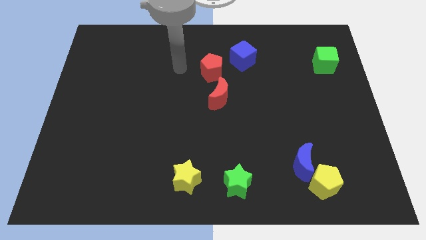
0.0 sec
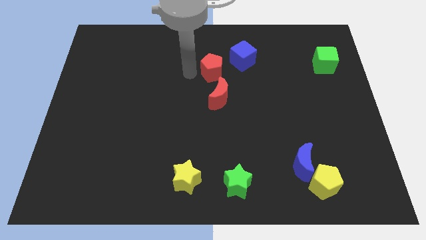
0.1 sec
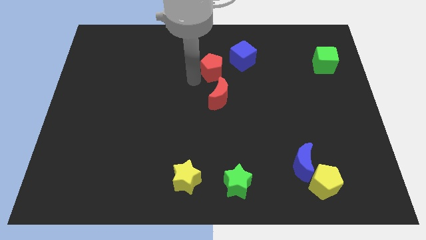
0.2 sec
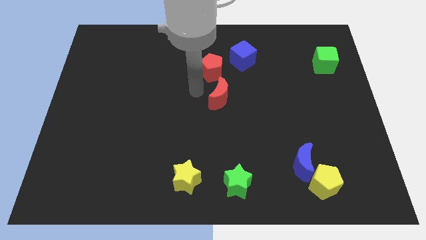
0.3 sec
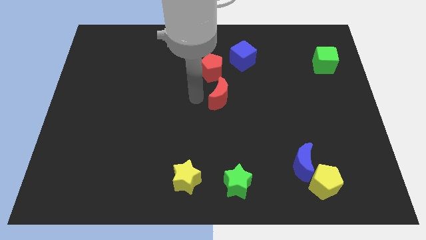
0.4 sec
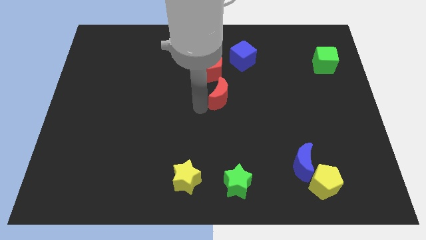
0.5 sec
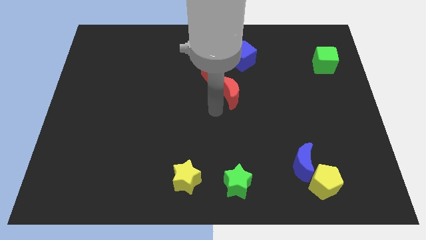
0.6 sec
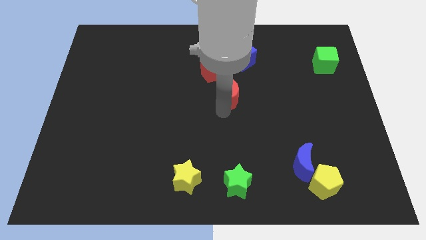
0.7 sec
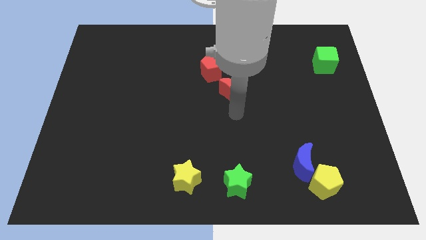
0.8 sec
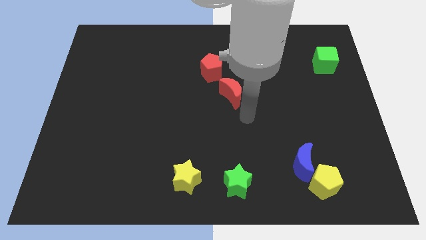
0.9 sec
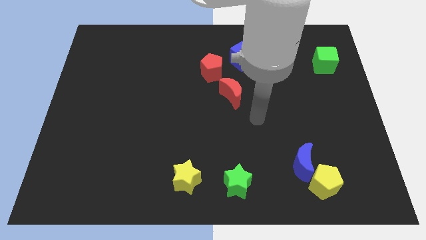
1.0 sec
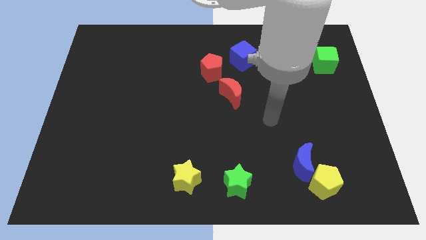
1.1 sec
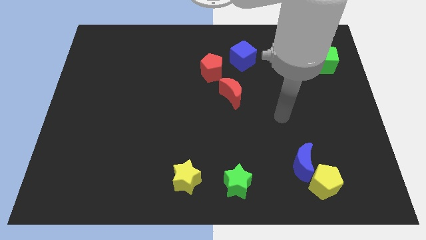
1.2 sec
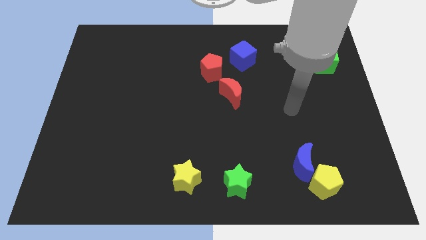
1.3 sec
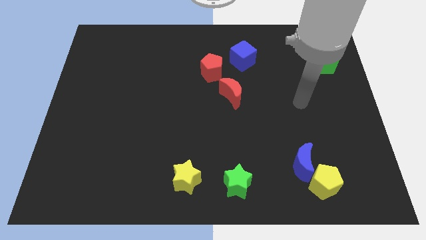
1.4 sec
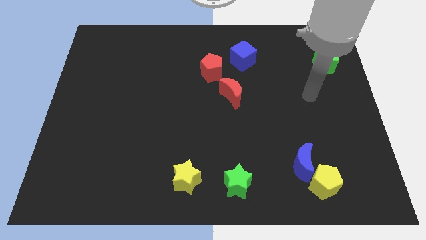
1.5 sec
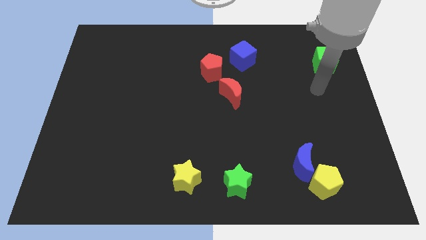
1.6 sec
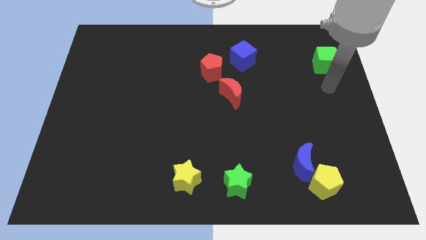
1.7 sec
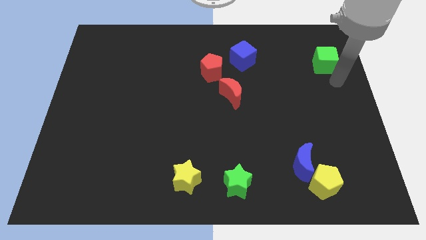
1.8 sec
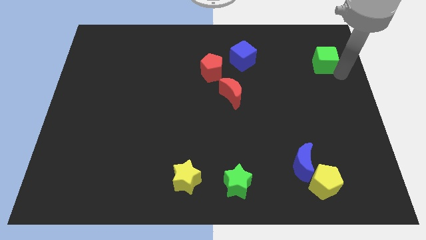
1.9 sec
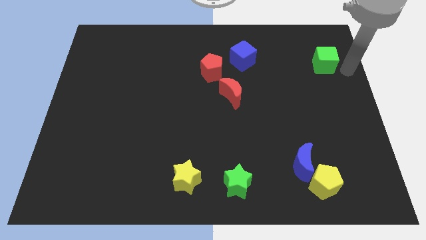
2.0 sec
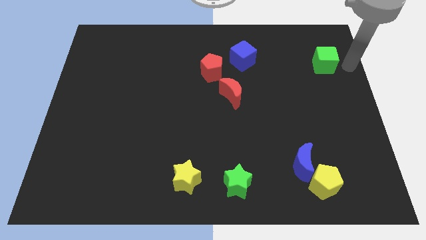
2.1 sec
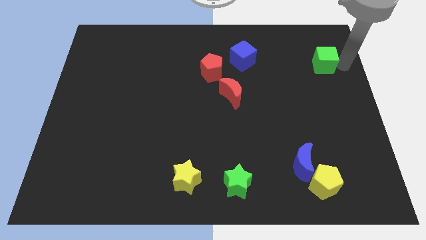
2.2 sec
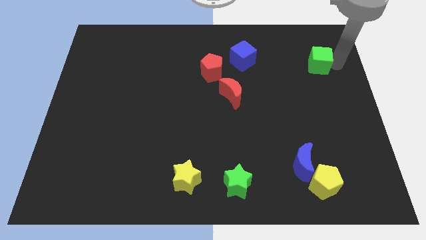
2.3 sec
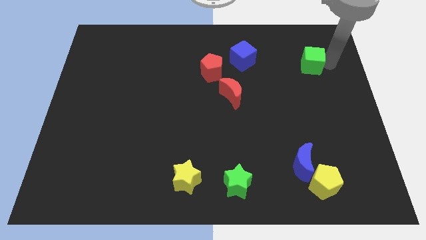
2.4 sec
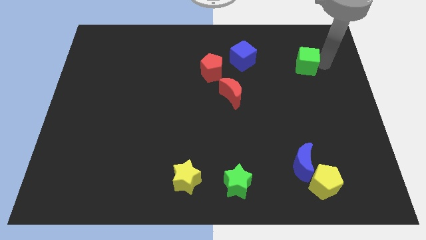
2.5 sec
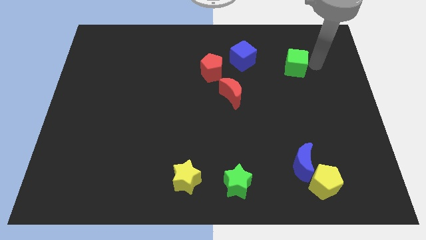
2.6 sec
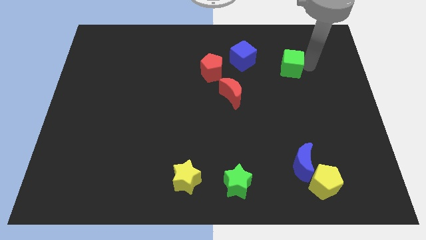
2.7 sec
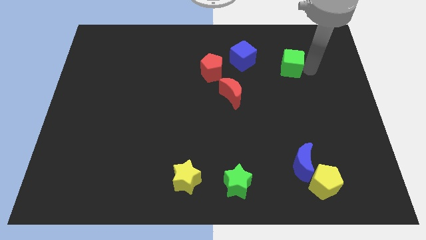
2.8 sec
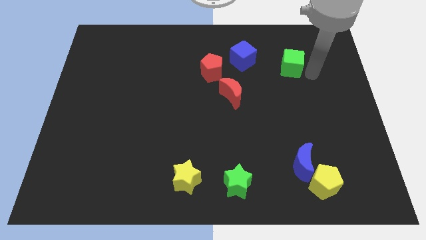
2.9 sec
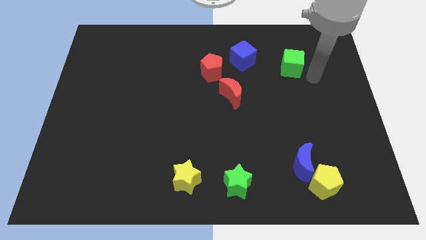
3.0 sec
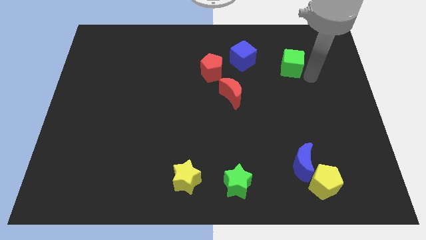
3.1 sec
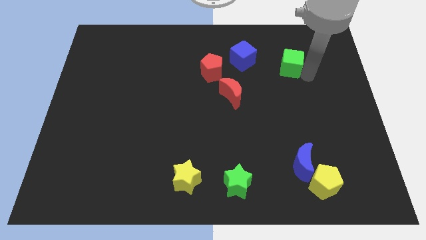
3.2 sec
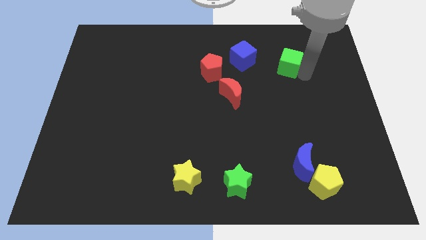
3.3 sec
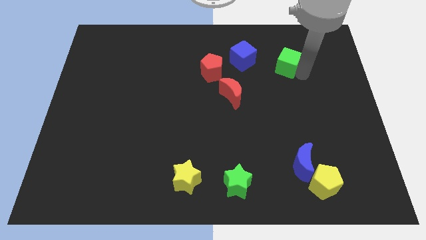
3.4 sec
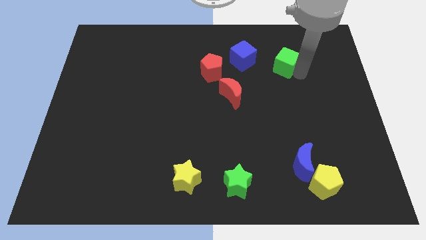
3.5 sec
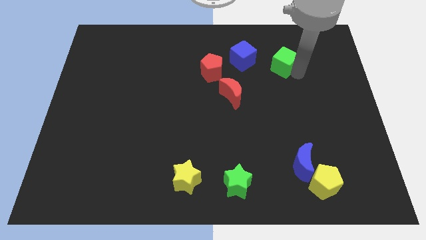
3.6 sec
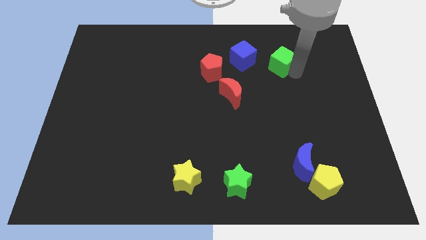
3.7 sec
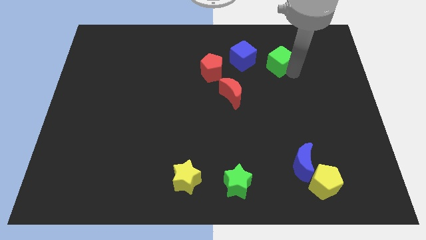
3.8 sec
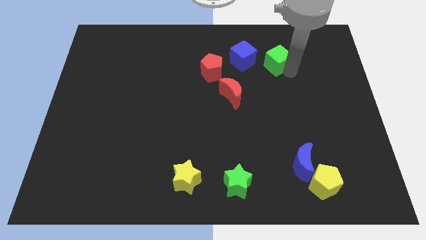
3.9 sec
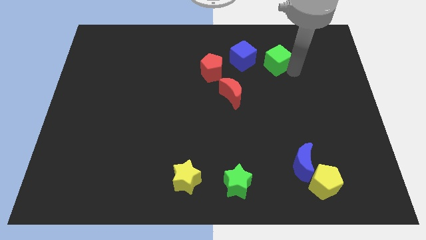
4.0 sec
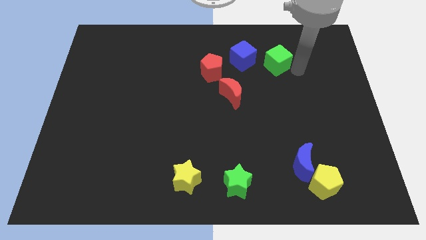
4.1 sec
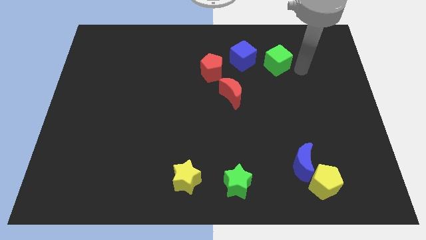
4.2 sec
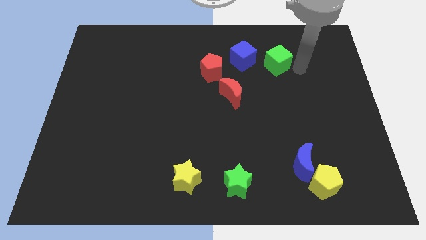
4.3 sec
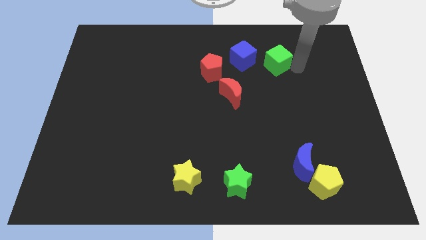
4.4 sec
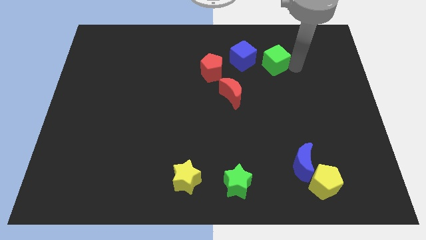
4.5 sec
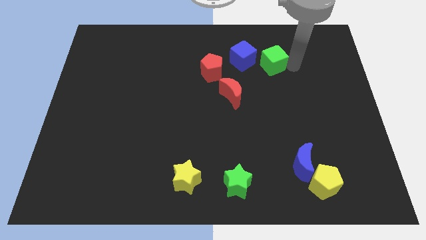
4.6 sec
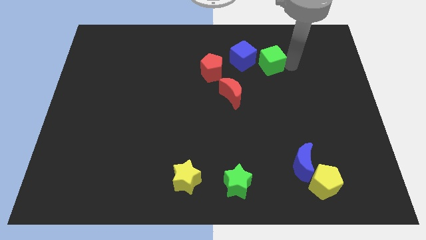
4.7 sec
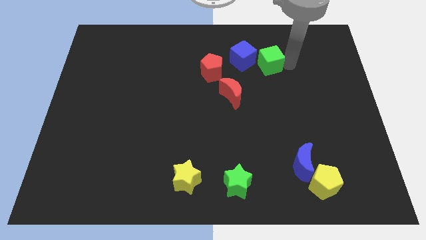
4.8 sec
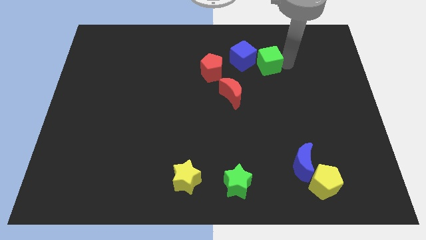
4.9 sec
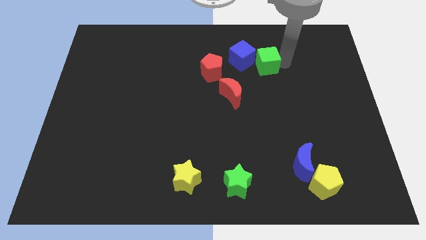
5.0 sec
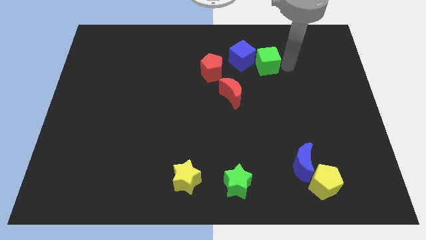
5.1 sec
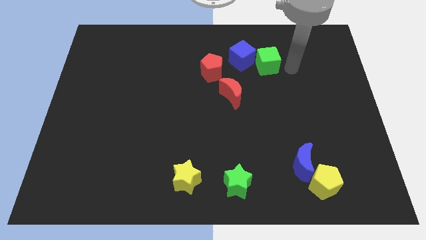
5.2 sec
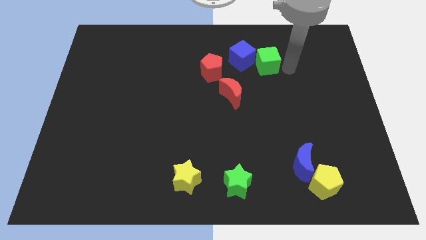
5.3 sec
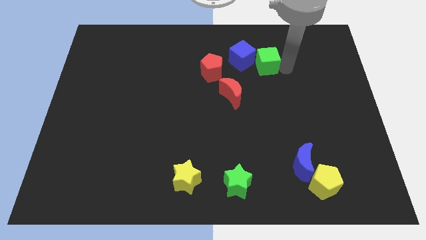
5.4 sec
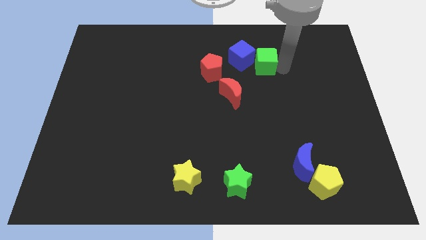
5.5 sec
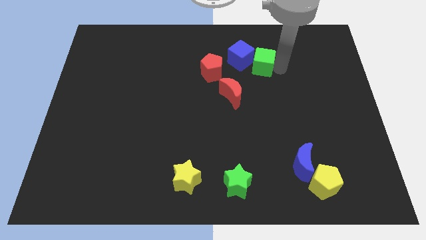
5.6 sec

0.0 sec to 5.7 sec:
move the green cube to the blue cube

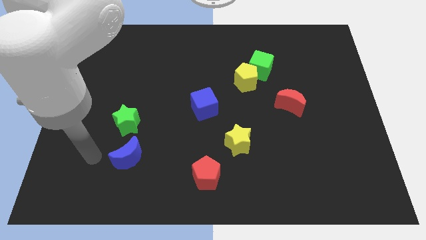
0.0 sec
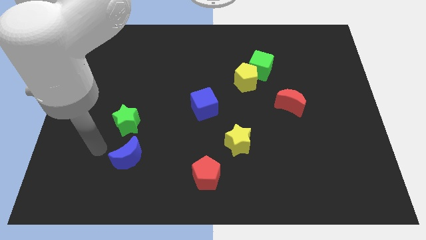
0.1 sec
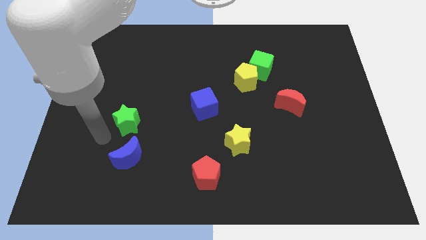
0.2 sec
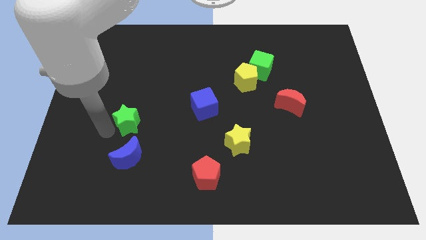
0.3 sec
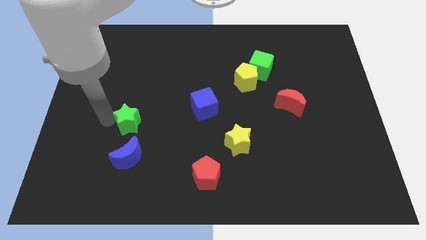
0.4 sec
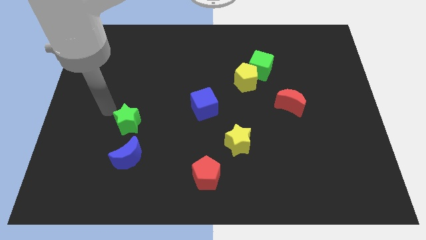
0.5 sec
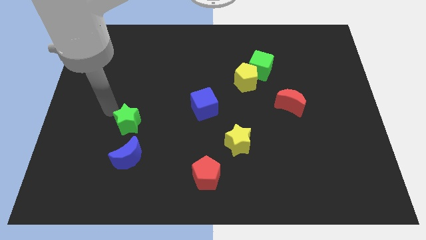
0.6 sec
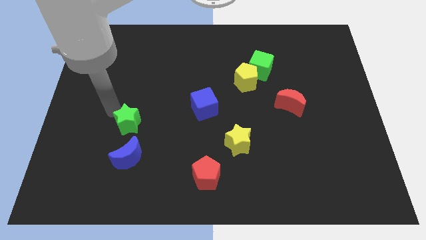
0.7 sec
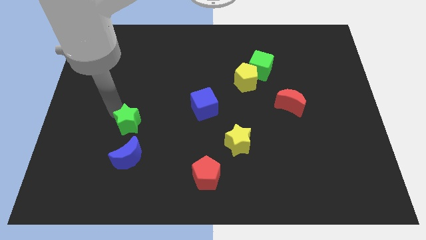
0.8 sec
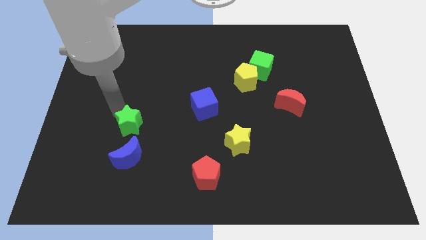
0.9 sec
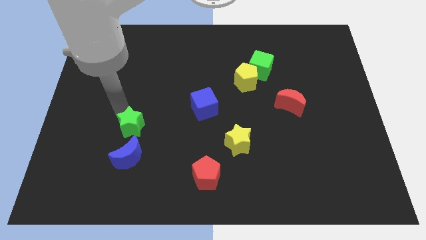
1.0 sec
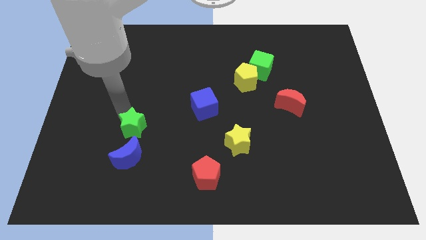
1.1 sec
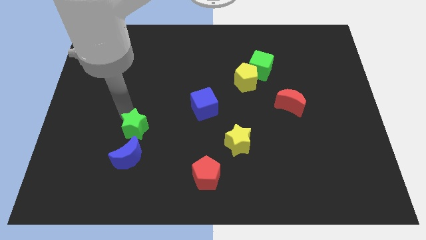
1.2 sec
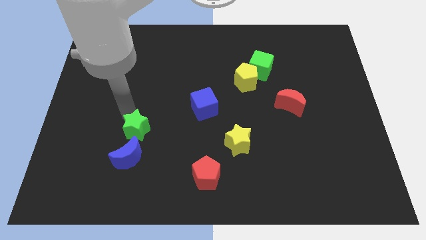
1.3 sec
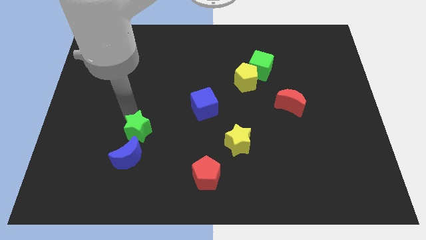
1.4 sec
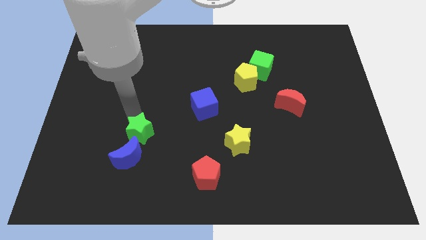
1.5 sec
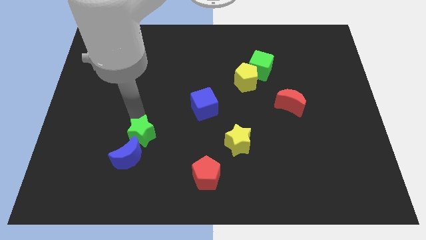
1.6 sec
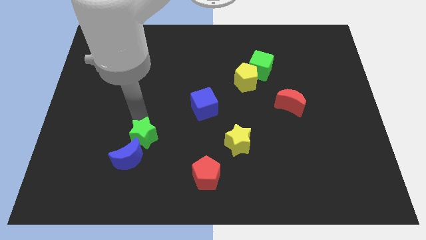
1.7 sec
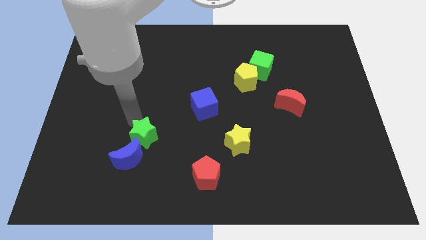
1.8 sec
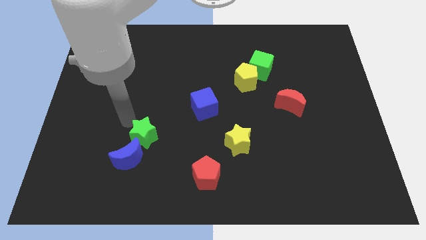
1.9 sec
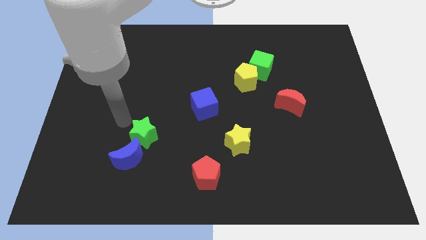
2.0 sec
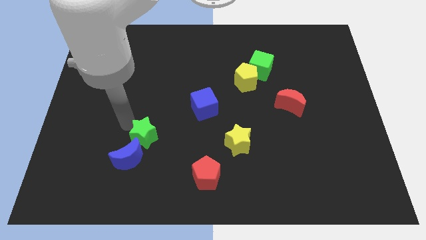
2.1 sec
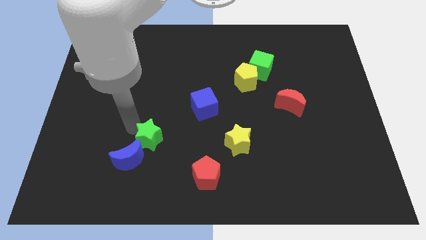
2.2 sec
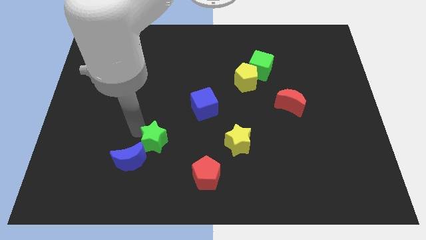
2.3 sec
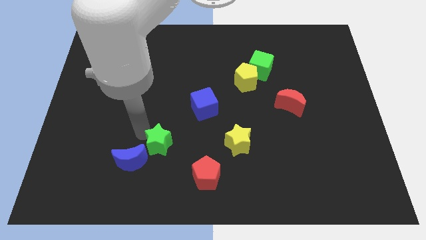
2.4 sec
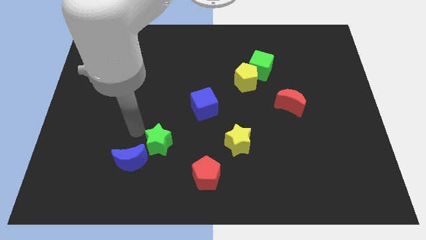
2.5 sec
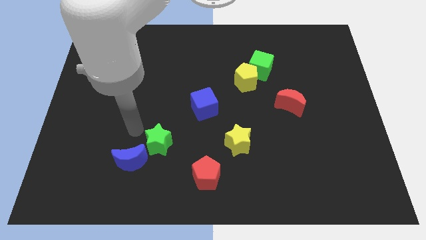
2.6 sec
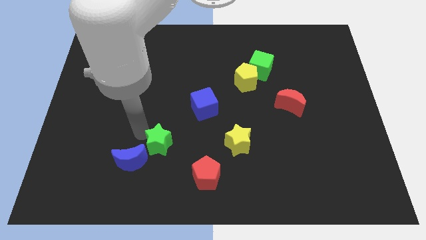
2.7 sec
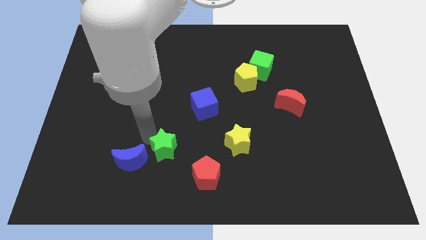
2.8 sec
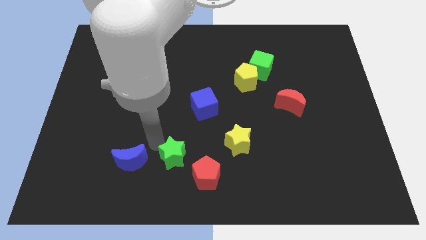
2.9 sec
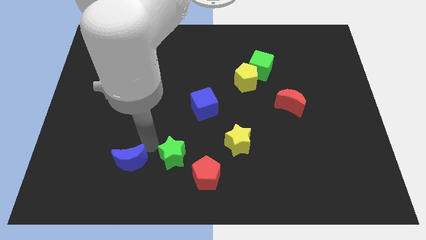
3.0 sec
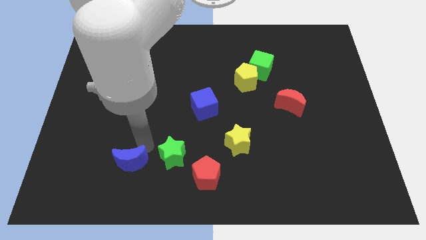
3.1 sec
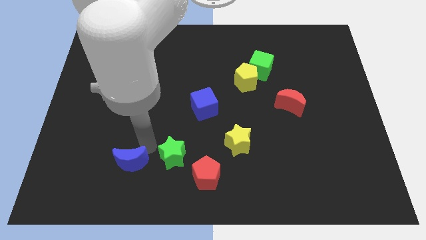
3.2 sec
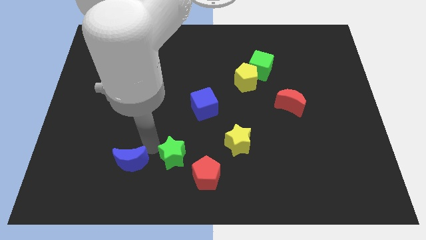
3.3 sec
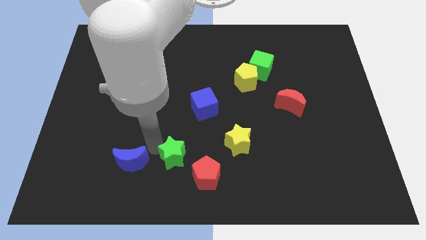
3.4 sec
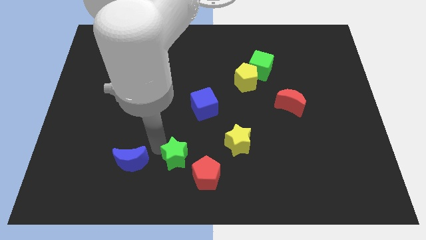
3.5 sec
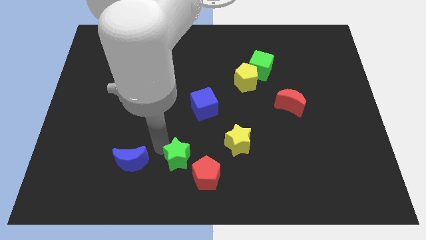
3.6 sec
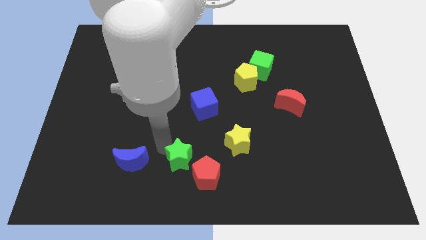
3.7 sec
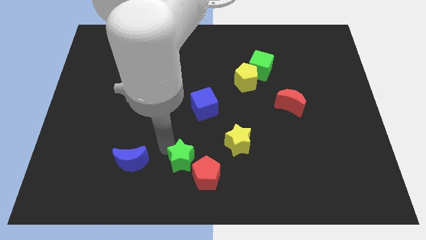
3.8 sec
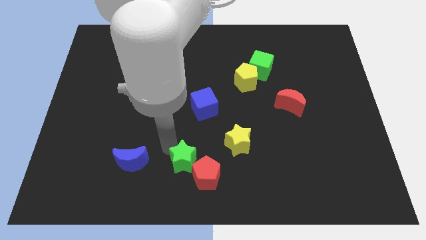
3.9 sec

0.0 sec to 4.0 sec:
slide the green star close to the red pentagon
